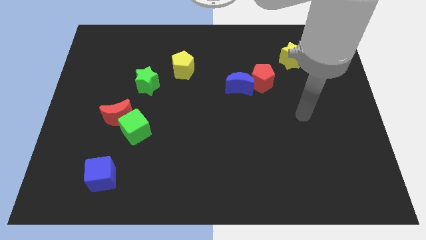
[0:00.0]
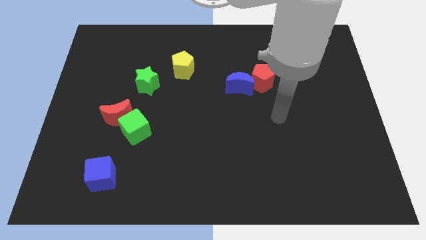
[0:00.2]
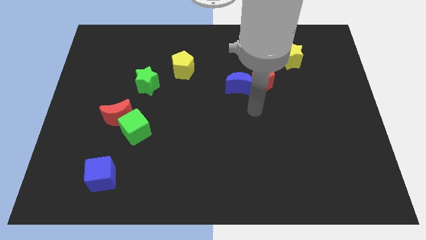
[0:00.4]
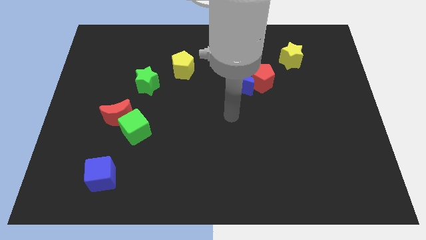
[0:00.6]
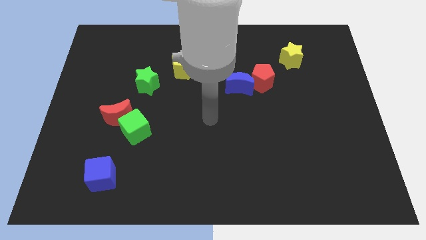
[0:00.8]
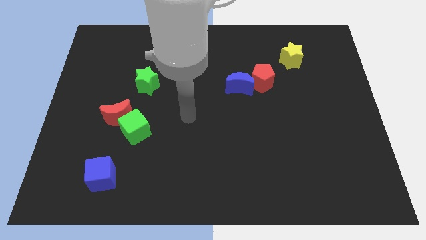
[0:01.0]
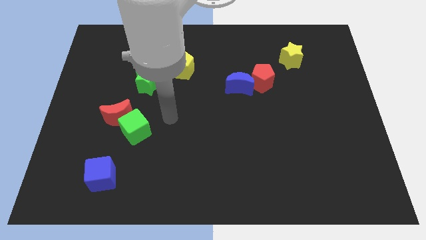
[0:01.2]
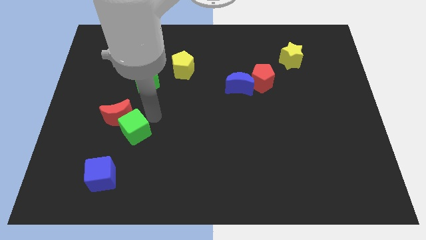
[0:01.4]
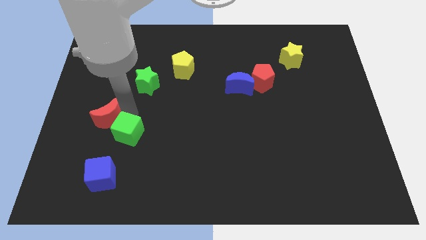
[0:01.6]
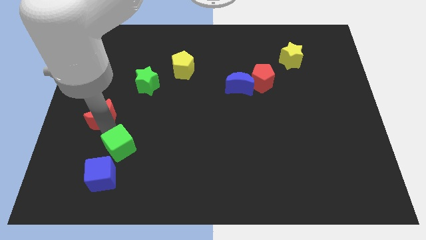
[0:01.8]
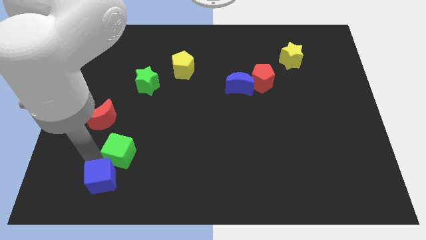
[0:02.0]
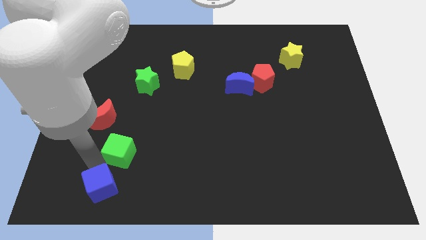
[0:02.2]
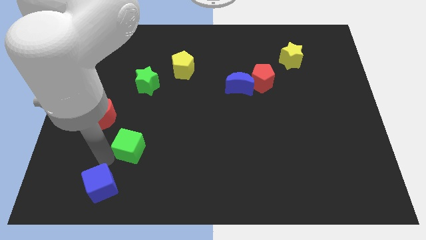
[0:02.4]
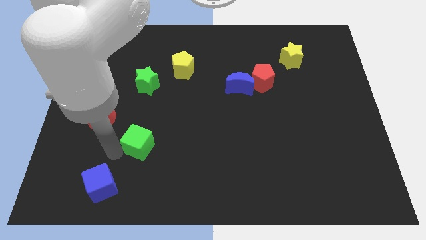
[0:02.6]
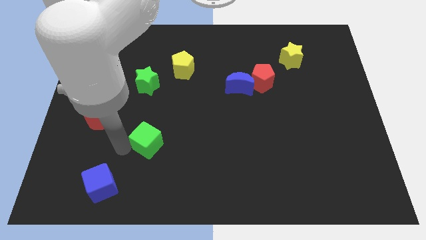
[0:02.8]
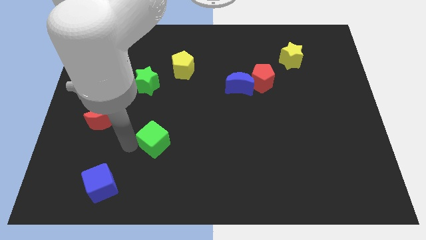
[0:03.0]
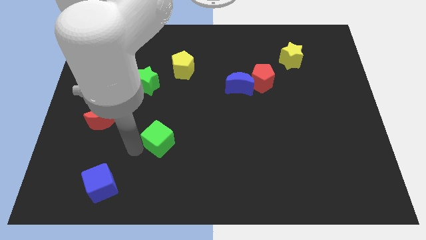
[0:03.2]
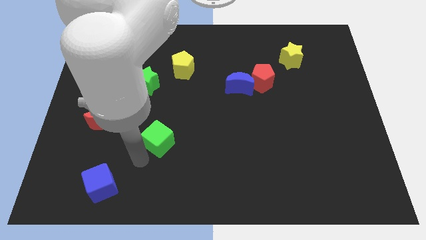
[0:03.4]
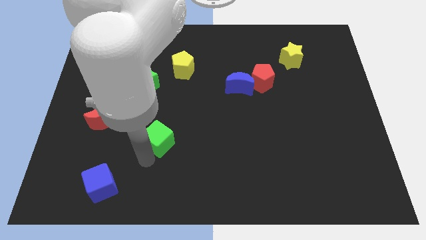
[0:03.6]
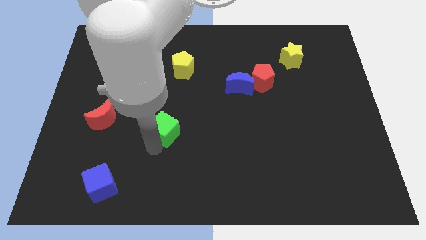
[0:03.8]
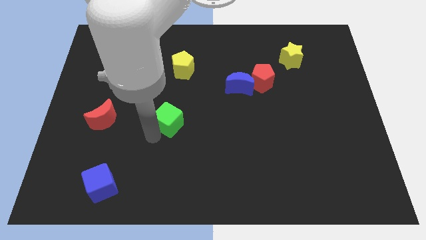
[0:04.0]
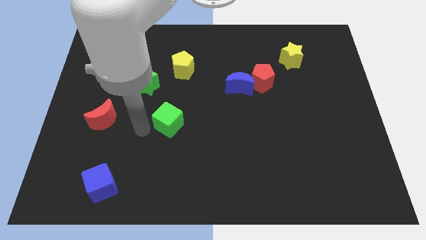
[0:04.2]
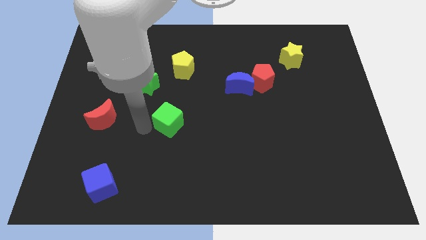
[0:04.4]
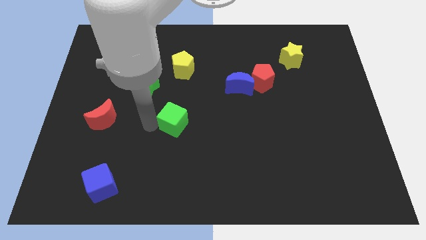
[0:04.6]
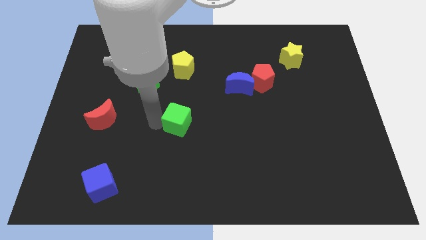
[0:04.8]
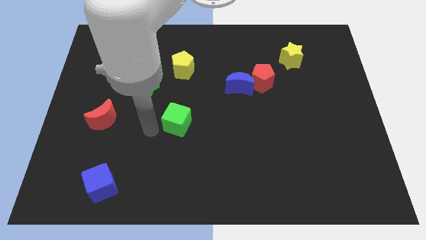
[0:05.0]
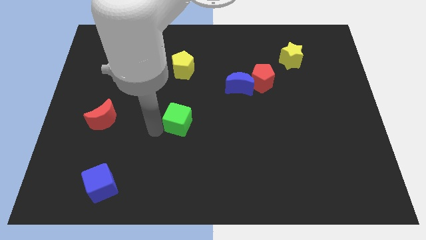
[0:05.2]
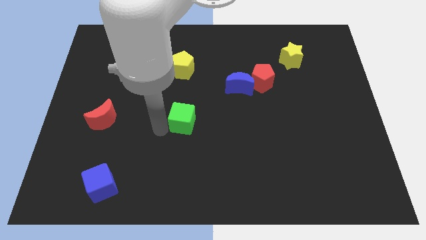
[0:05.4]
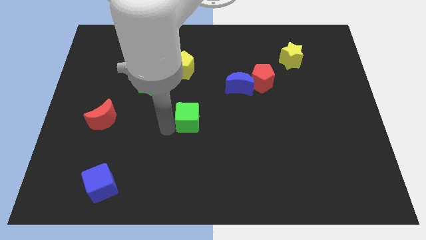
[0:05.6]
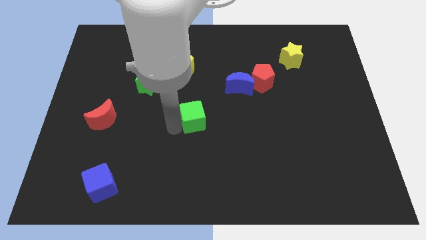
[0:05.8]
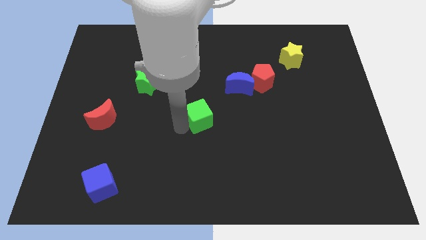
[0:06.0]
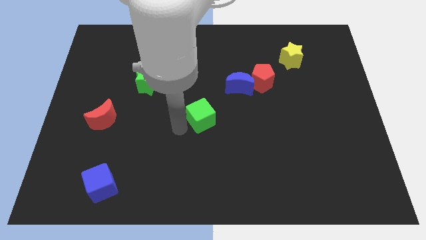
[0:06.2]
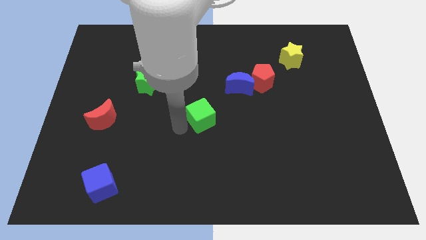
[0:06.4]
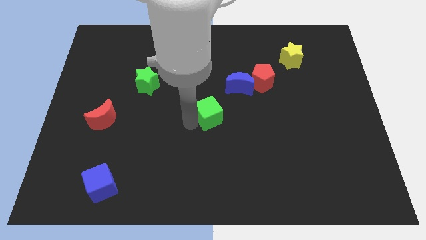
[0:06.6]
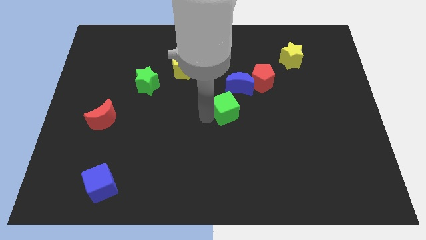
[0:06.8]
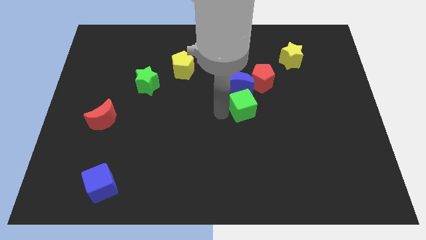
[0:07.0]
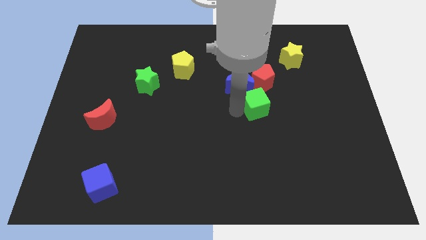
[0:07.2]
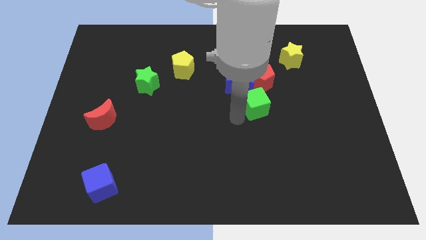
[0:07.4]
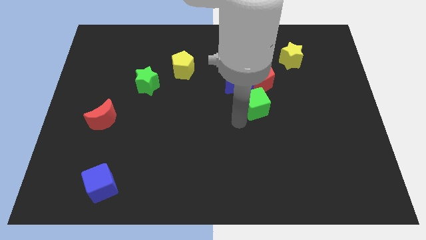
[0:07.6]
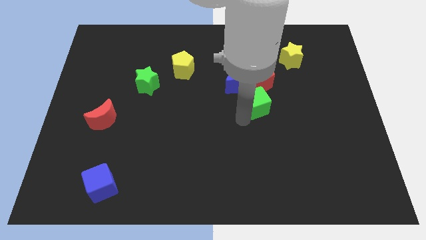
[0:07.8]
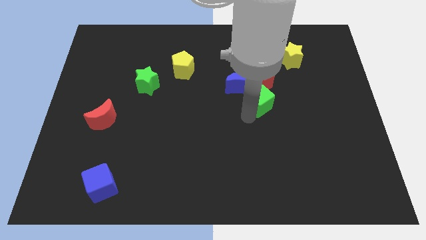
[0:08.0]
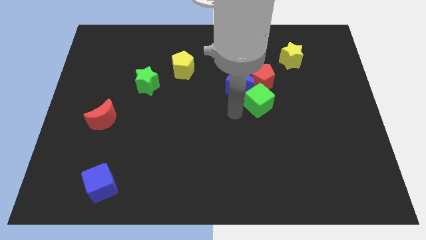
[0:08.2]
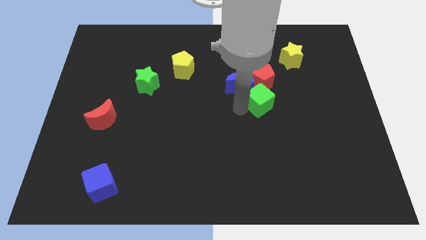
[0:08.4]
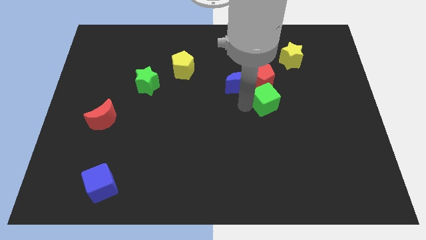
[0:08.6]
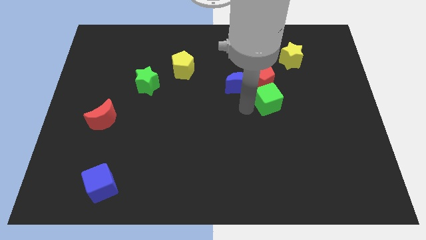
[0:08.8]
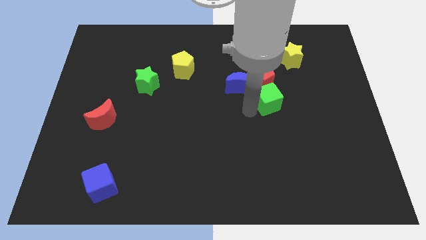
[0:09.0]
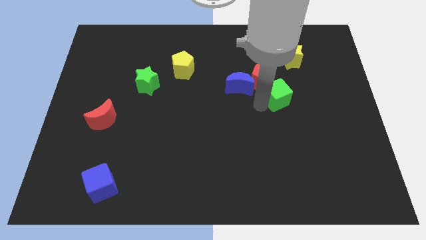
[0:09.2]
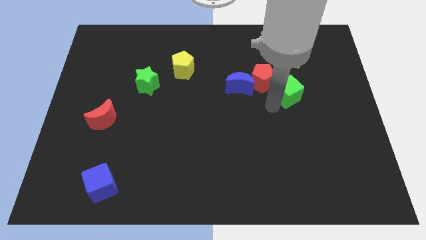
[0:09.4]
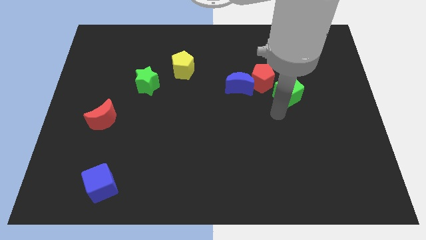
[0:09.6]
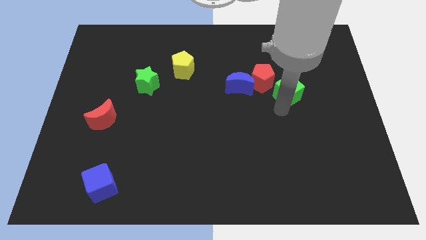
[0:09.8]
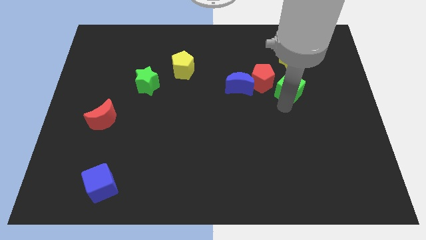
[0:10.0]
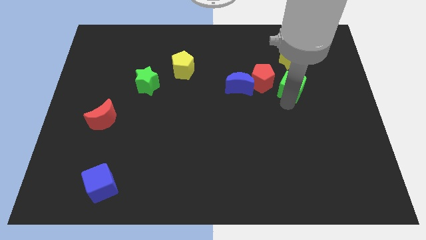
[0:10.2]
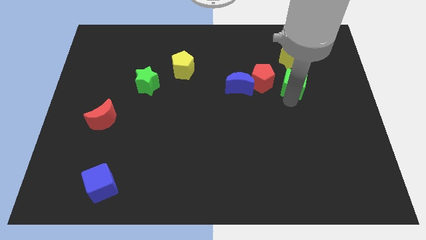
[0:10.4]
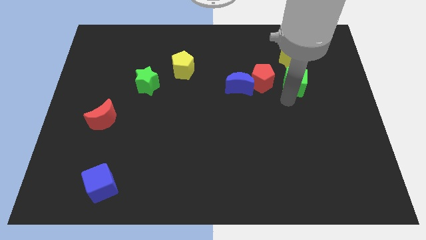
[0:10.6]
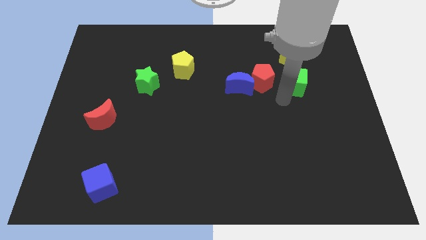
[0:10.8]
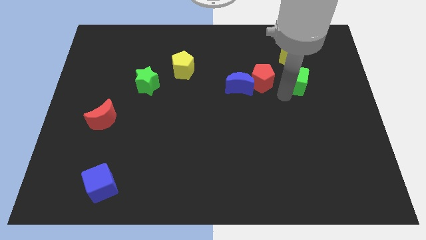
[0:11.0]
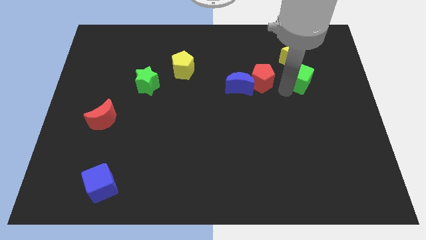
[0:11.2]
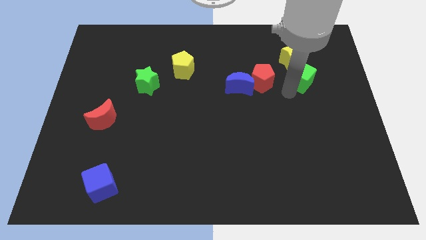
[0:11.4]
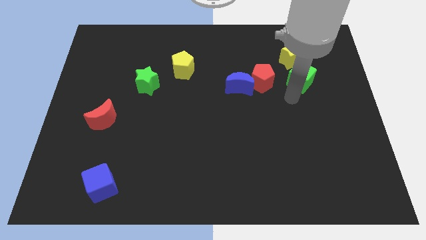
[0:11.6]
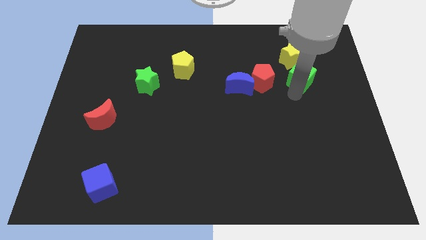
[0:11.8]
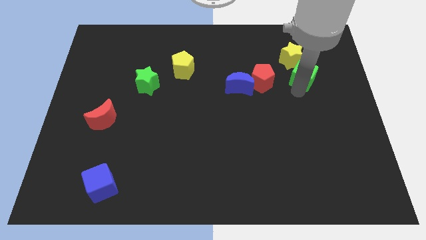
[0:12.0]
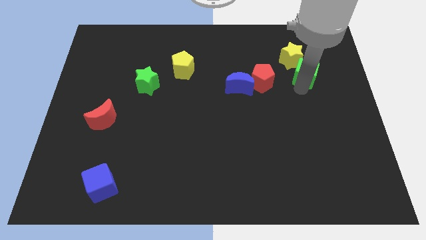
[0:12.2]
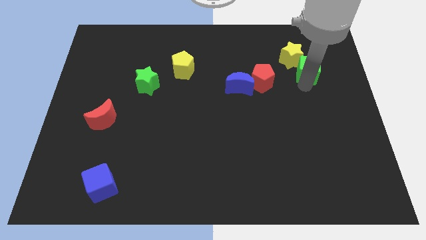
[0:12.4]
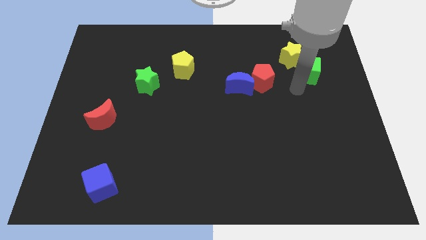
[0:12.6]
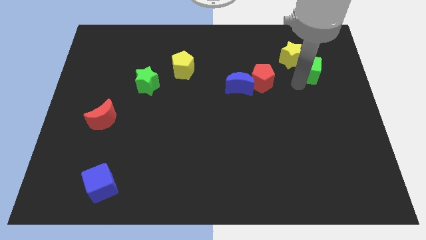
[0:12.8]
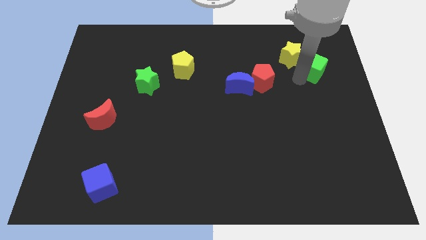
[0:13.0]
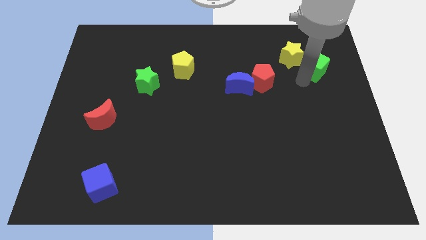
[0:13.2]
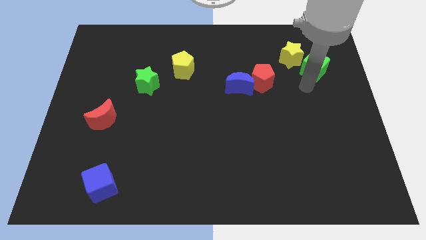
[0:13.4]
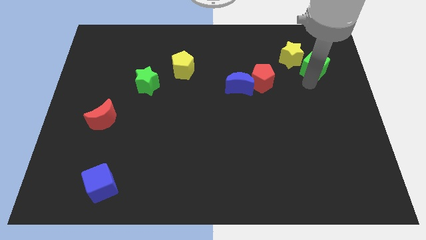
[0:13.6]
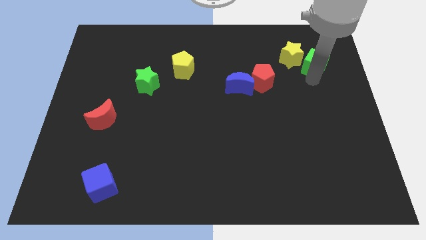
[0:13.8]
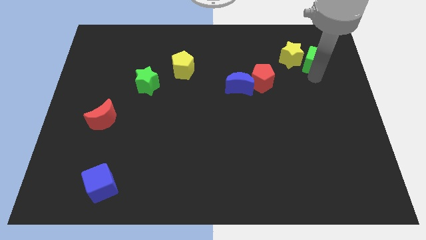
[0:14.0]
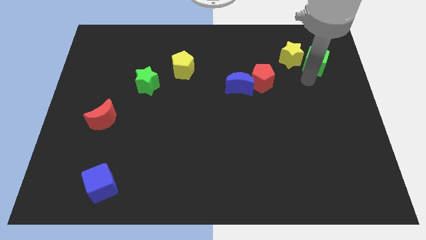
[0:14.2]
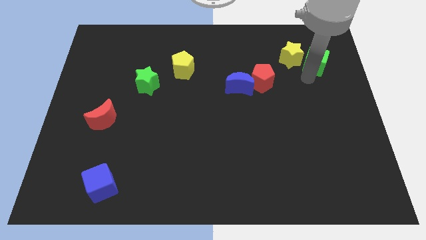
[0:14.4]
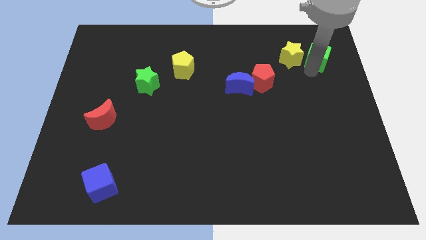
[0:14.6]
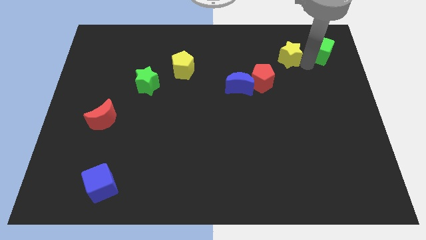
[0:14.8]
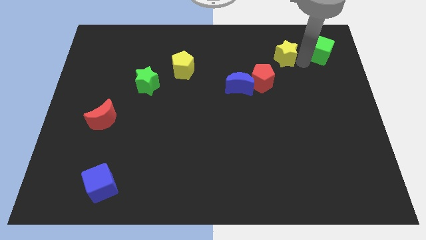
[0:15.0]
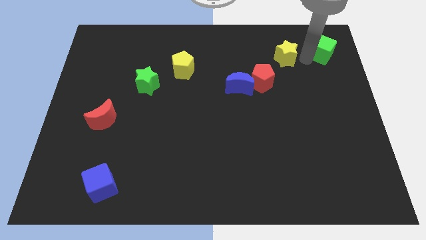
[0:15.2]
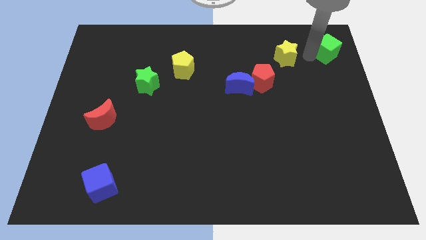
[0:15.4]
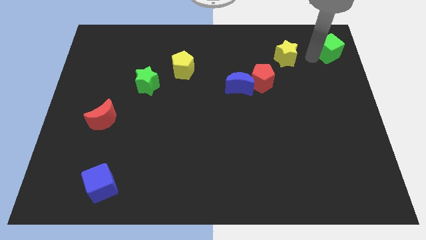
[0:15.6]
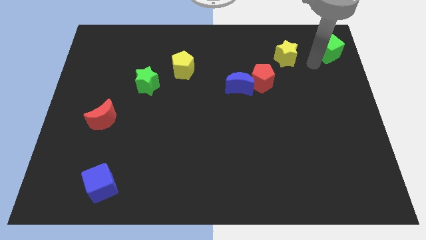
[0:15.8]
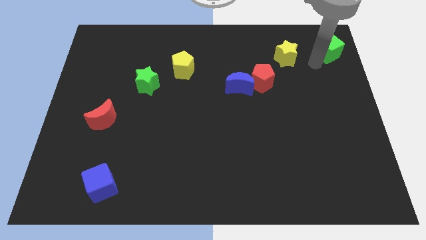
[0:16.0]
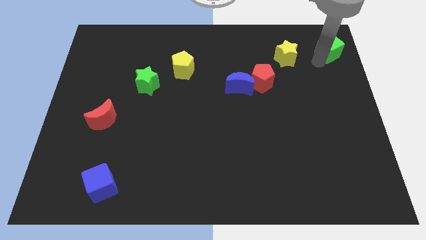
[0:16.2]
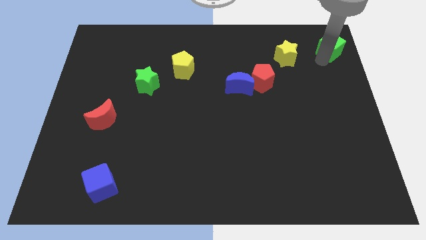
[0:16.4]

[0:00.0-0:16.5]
slide the green cube to the top right corner
